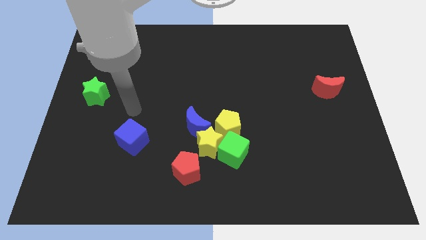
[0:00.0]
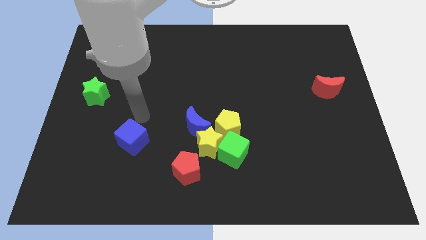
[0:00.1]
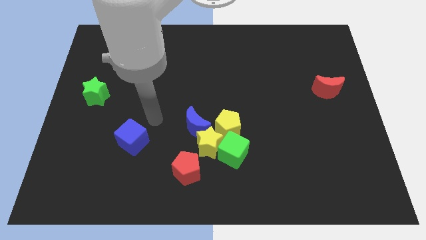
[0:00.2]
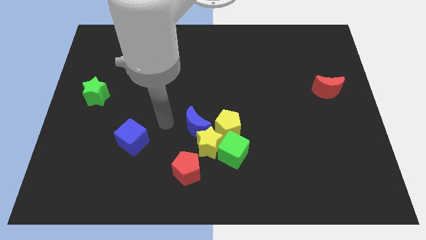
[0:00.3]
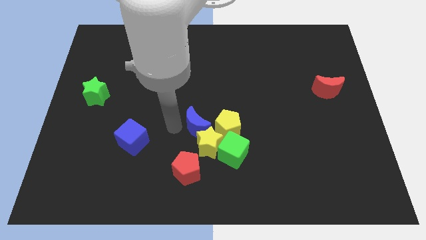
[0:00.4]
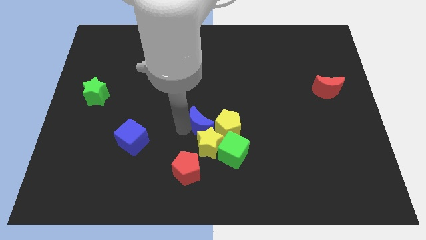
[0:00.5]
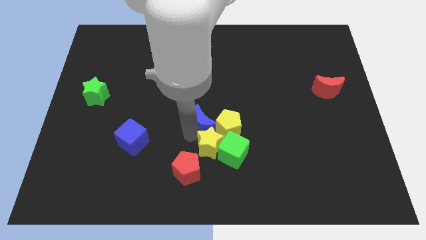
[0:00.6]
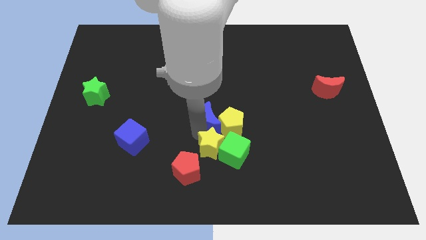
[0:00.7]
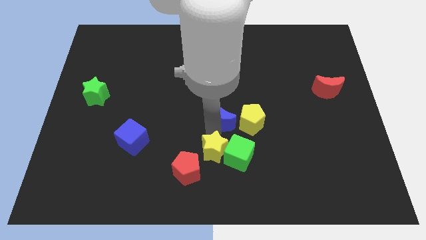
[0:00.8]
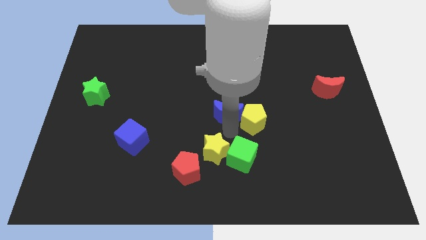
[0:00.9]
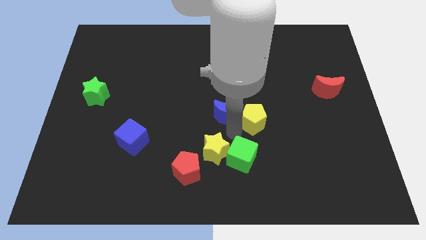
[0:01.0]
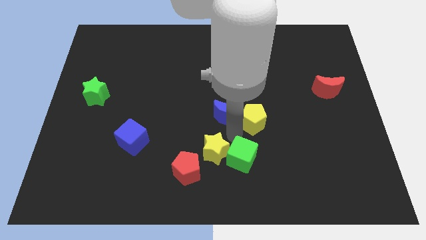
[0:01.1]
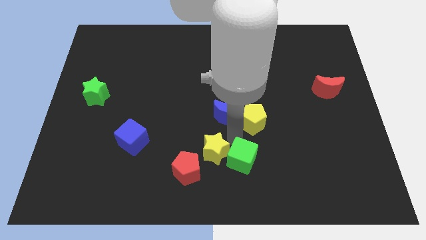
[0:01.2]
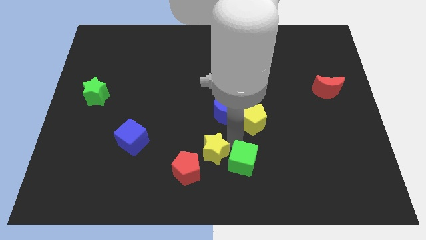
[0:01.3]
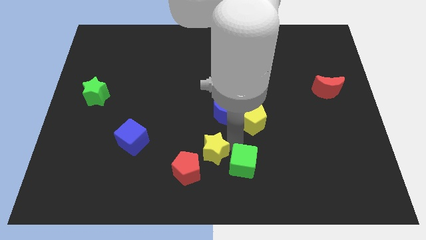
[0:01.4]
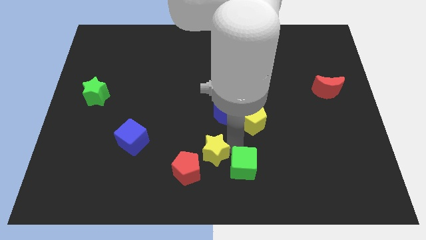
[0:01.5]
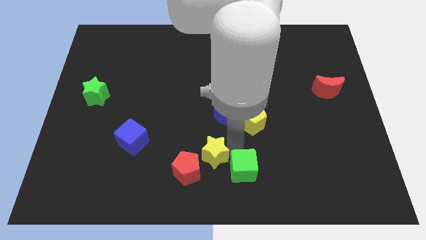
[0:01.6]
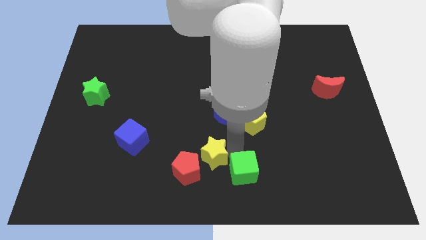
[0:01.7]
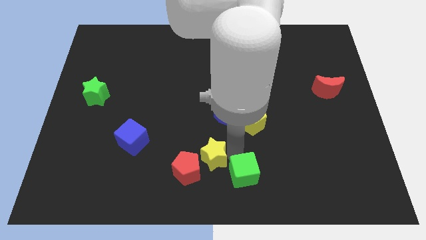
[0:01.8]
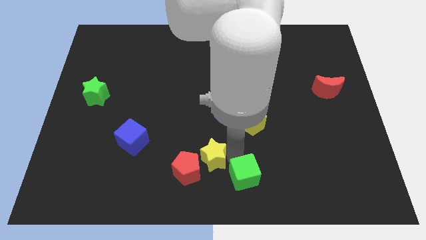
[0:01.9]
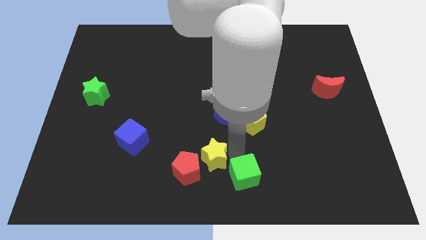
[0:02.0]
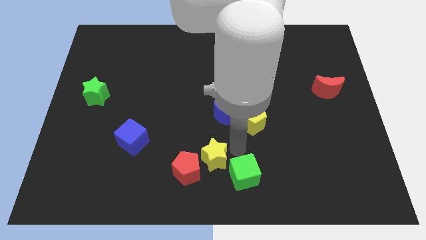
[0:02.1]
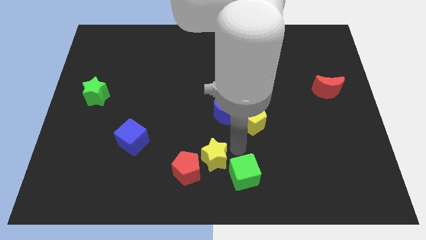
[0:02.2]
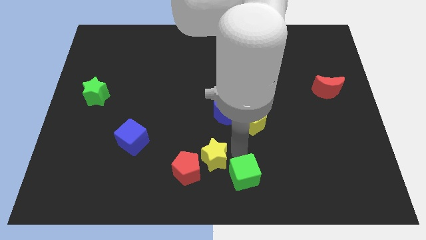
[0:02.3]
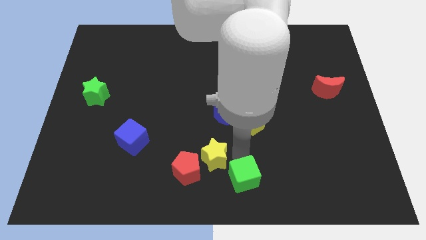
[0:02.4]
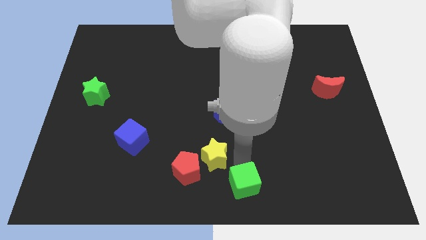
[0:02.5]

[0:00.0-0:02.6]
move the green cube away from the yellow star and yellow pentagon

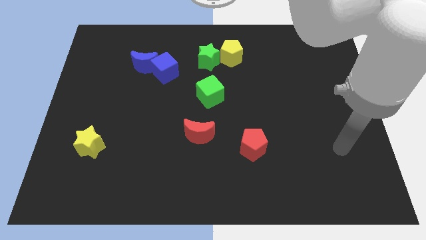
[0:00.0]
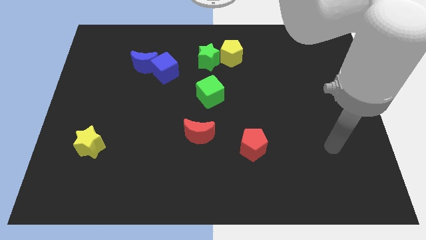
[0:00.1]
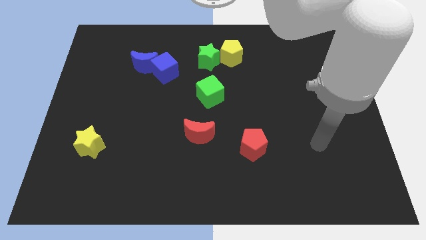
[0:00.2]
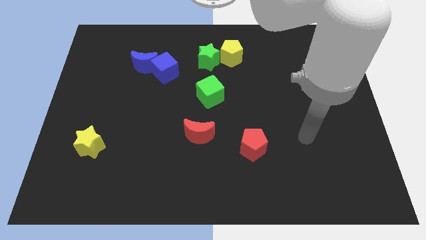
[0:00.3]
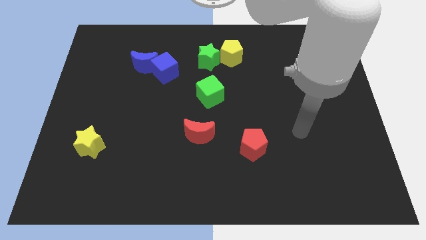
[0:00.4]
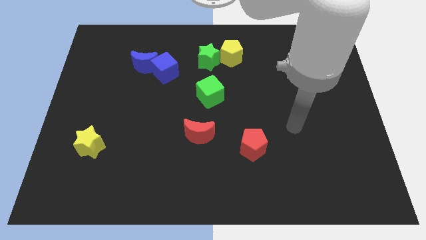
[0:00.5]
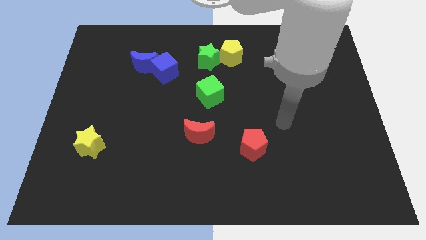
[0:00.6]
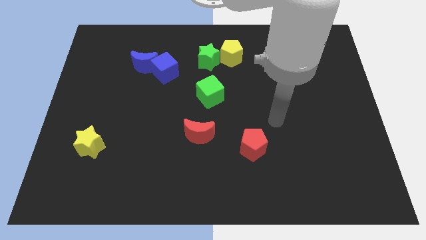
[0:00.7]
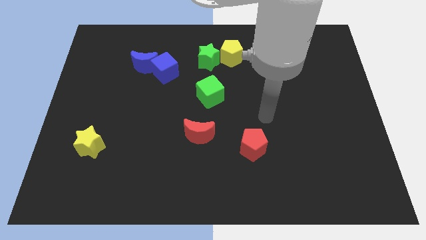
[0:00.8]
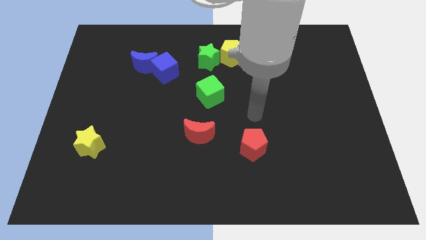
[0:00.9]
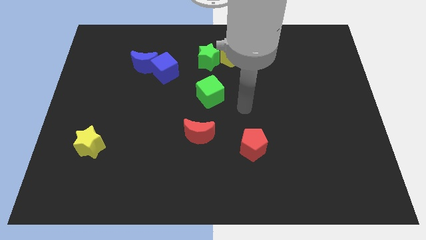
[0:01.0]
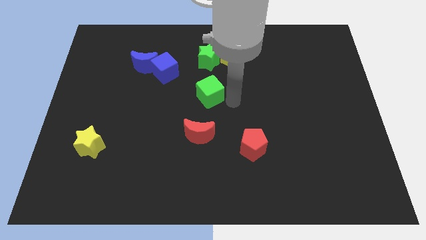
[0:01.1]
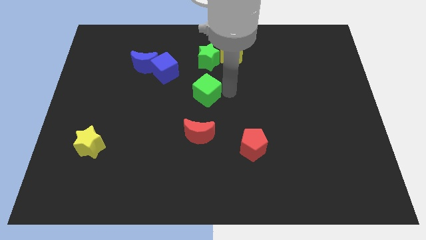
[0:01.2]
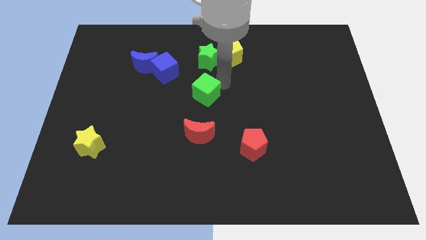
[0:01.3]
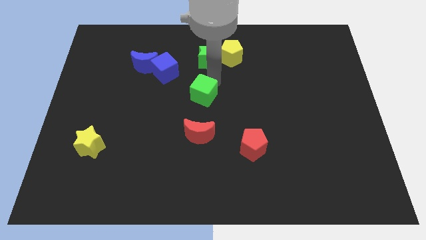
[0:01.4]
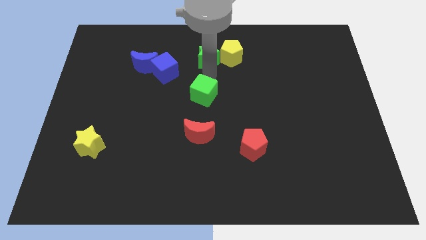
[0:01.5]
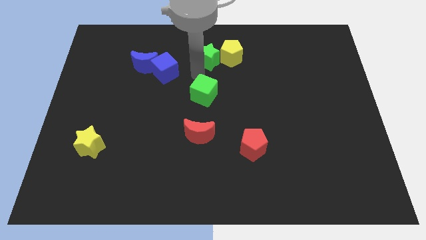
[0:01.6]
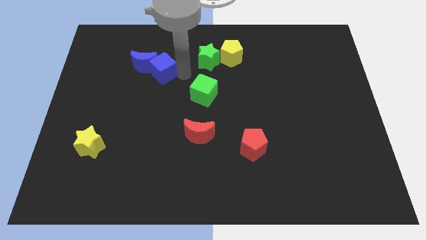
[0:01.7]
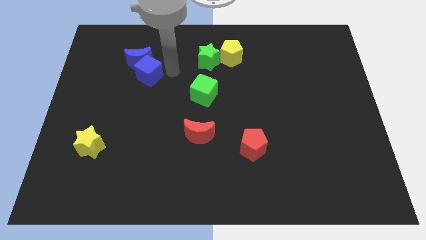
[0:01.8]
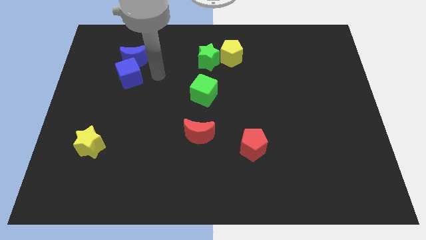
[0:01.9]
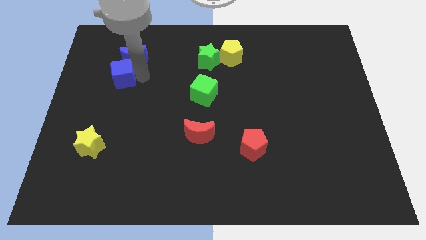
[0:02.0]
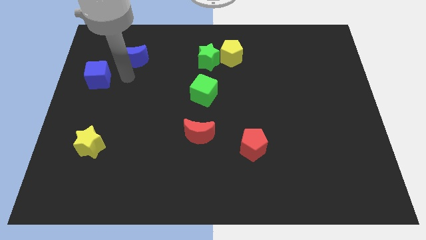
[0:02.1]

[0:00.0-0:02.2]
pull the blue moon apart from the blue cube

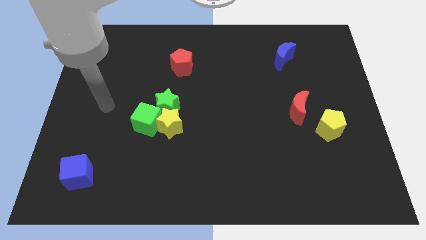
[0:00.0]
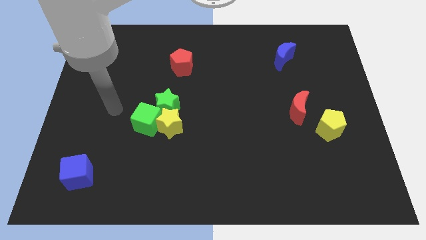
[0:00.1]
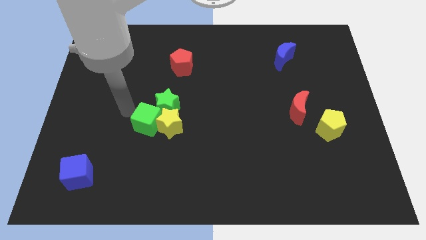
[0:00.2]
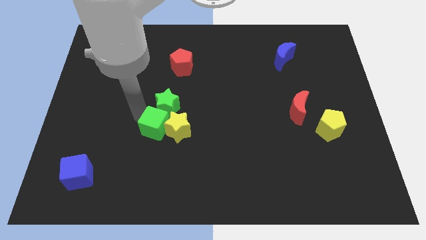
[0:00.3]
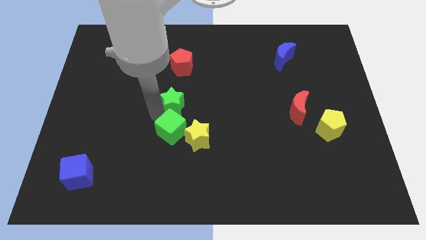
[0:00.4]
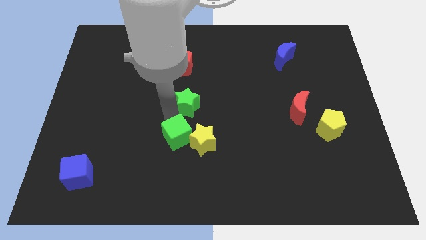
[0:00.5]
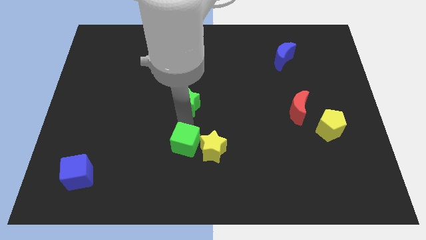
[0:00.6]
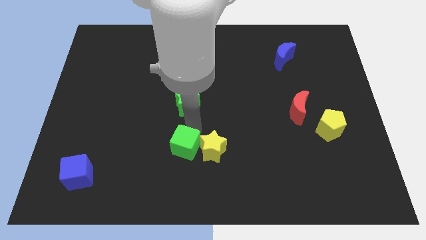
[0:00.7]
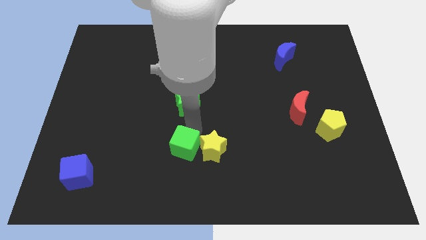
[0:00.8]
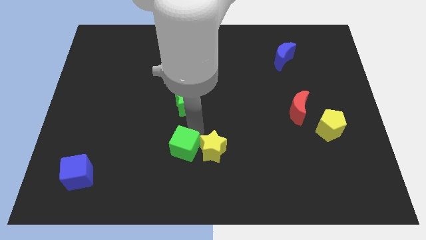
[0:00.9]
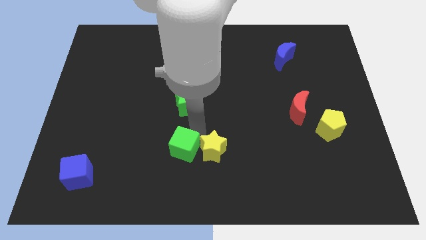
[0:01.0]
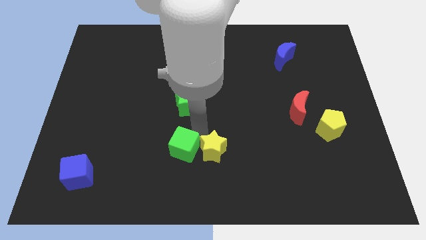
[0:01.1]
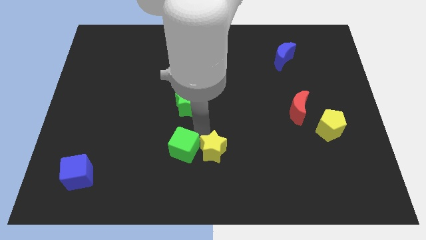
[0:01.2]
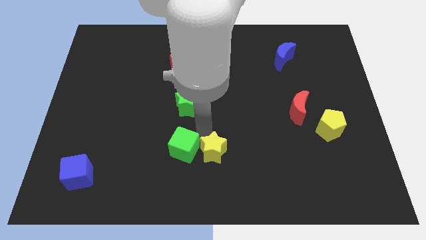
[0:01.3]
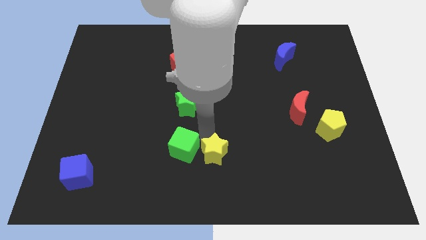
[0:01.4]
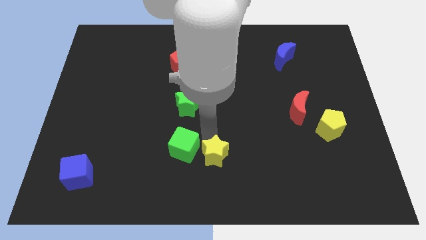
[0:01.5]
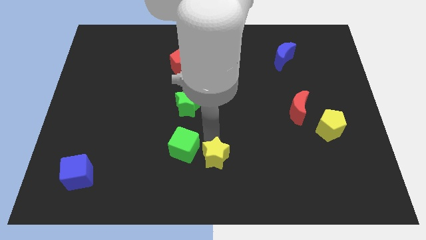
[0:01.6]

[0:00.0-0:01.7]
separate the yellow star from the green star and green cube

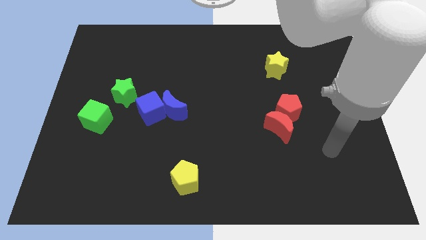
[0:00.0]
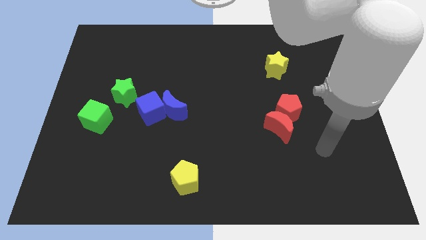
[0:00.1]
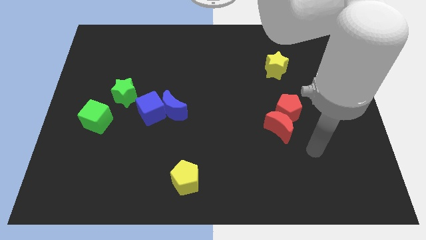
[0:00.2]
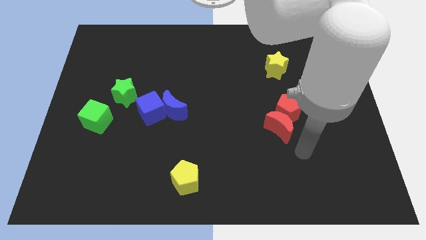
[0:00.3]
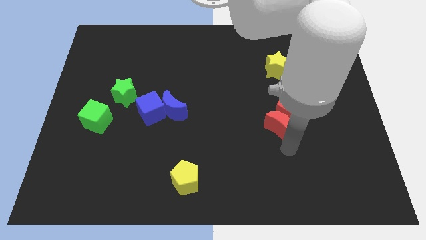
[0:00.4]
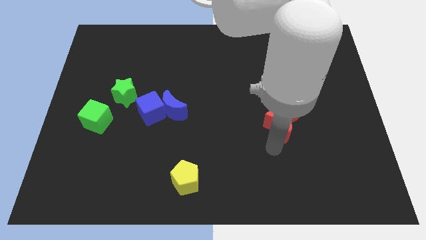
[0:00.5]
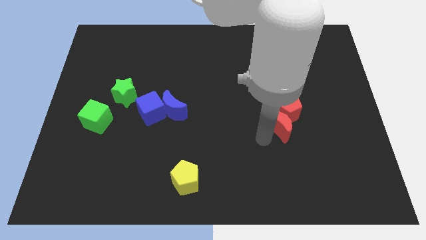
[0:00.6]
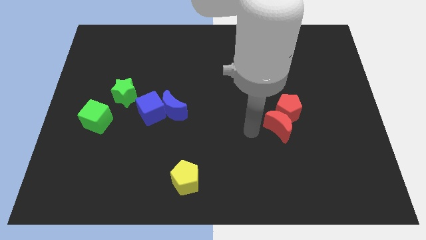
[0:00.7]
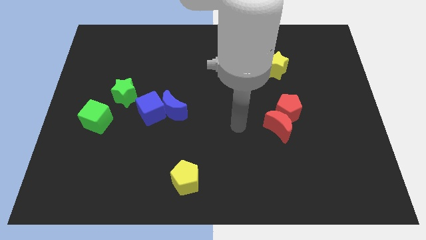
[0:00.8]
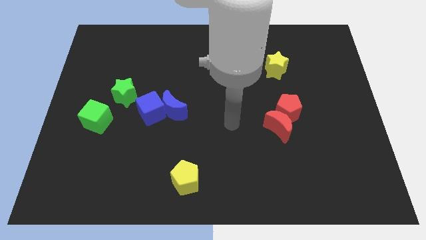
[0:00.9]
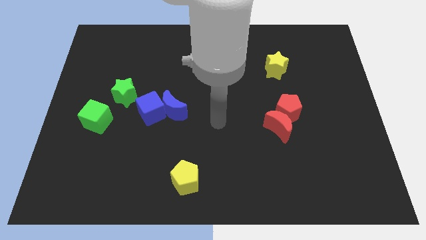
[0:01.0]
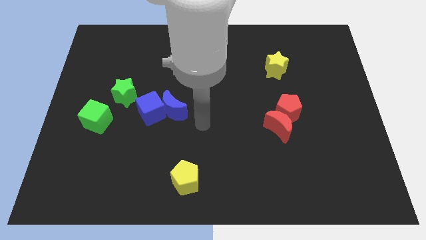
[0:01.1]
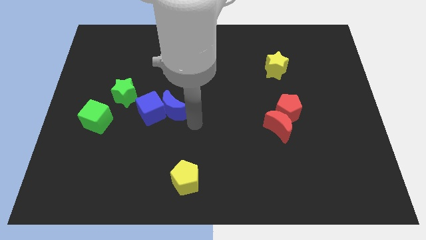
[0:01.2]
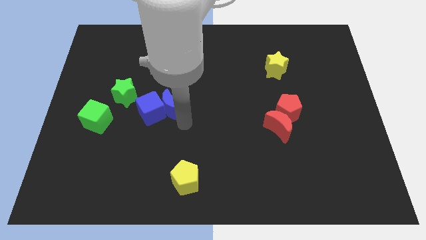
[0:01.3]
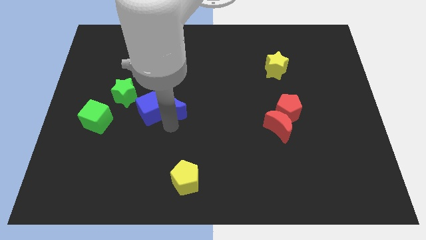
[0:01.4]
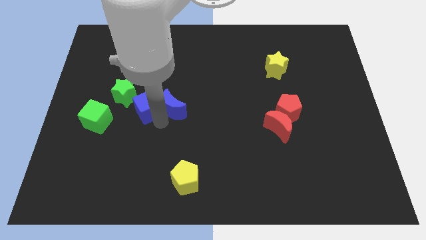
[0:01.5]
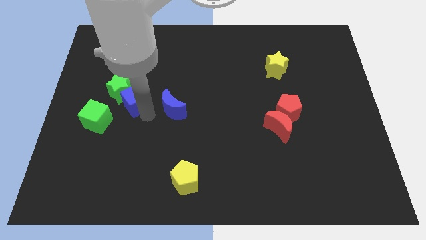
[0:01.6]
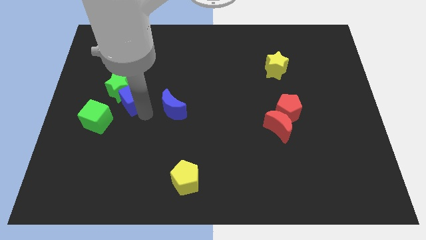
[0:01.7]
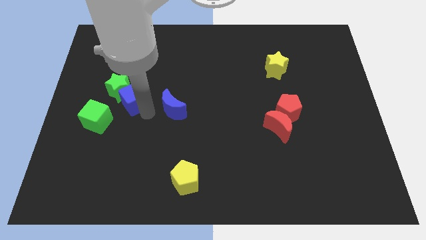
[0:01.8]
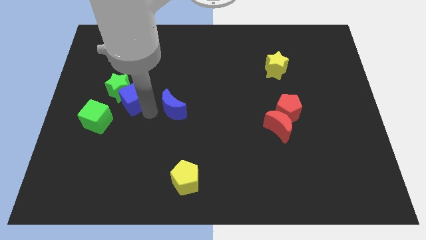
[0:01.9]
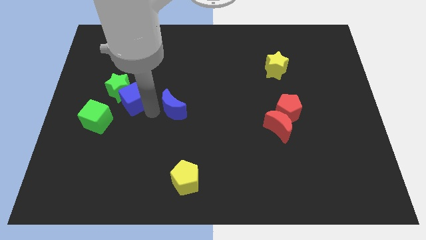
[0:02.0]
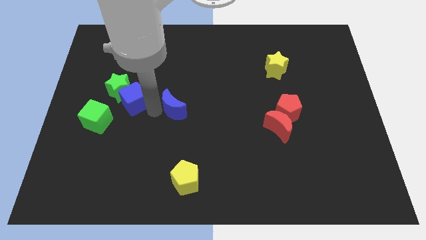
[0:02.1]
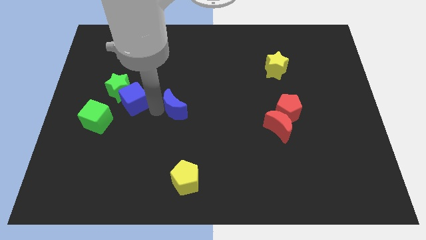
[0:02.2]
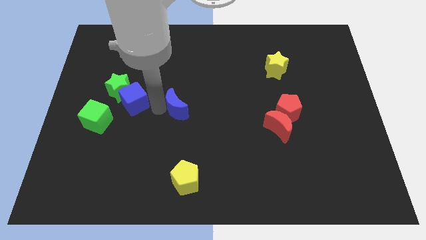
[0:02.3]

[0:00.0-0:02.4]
separate the blue moon from the blue cube

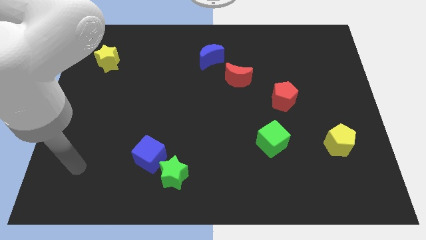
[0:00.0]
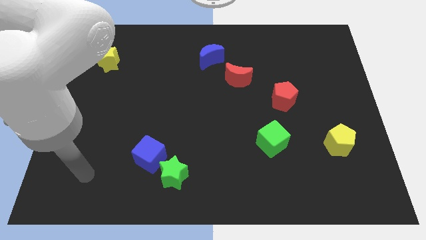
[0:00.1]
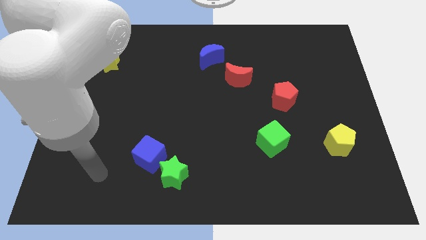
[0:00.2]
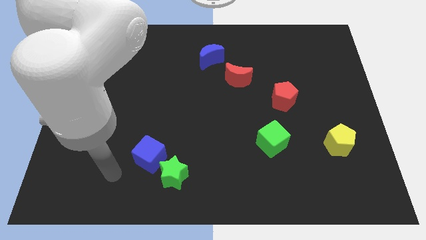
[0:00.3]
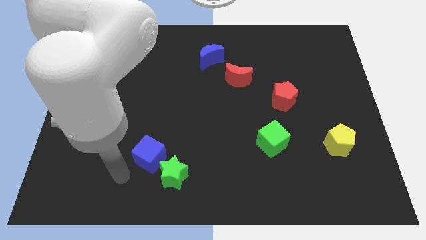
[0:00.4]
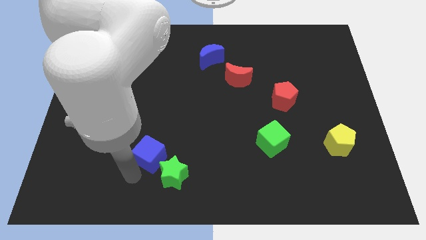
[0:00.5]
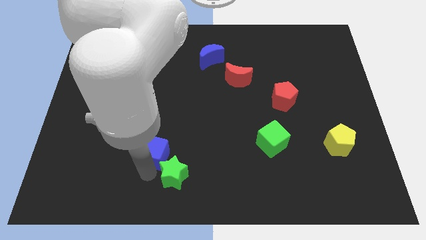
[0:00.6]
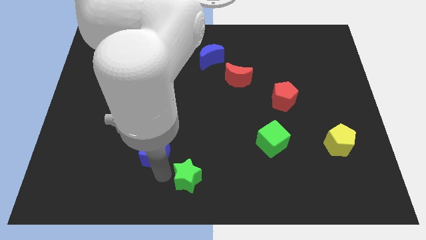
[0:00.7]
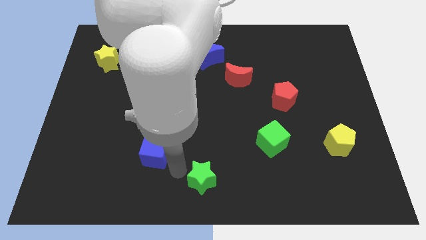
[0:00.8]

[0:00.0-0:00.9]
pull the blue cube apart from the green star
